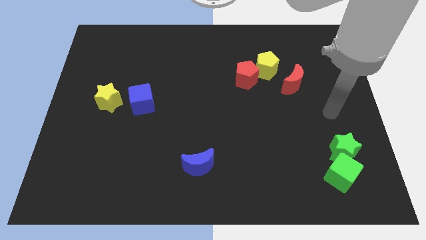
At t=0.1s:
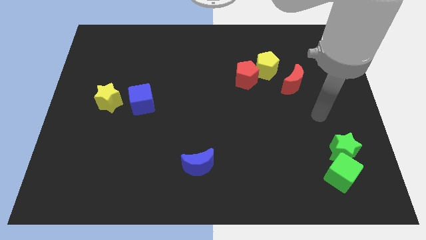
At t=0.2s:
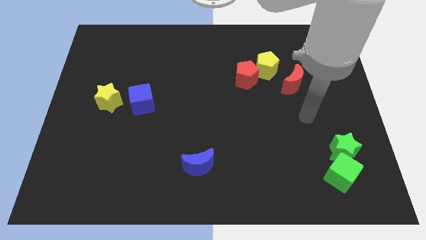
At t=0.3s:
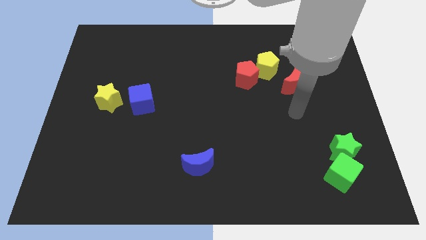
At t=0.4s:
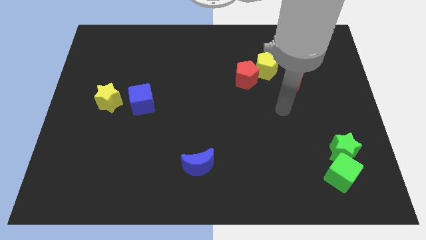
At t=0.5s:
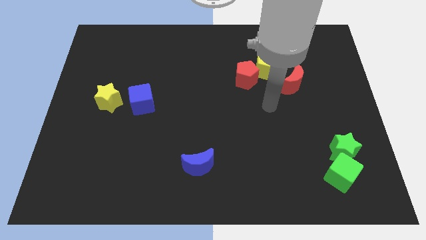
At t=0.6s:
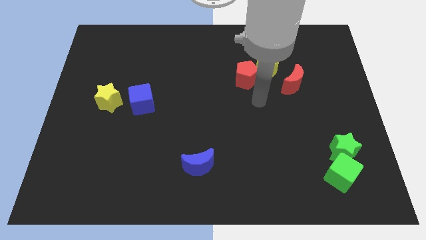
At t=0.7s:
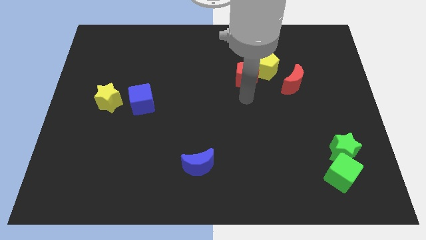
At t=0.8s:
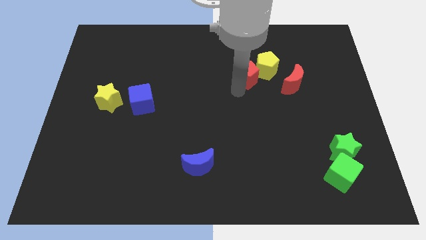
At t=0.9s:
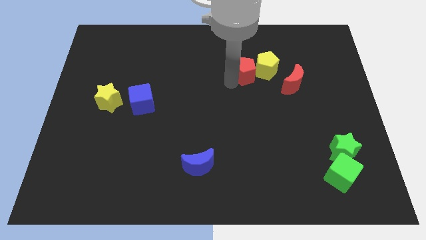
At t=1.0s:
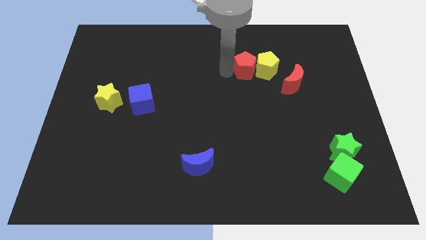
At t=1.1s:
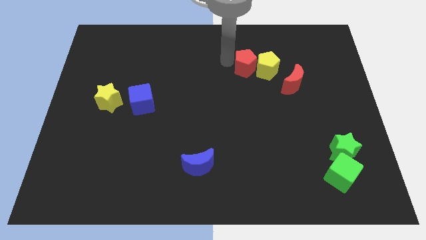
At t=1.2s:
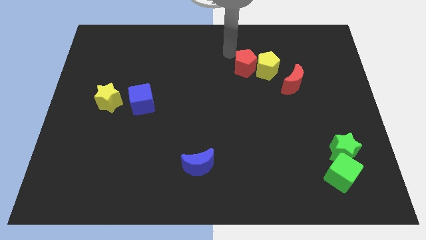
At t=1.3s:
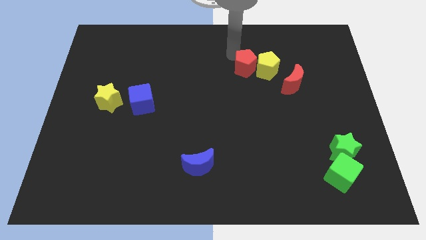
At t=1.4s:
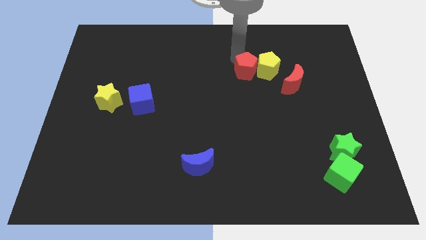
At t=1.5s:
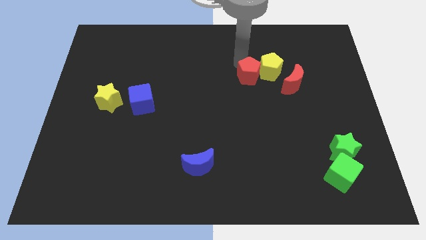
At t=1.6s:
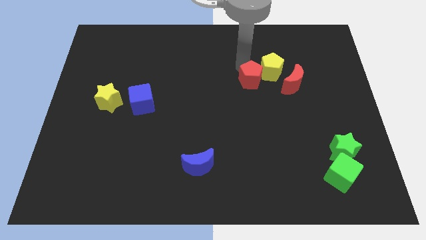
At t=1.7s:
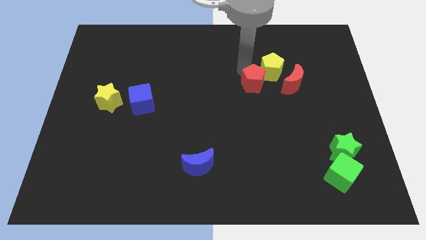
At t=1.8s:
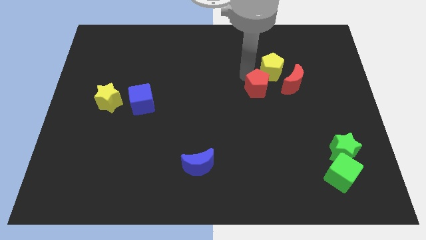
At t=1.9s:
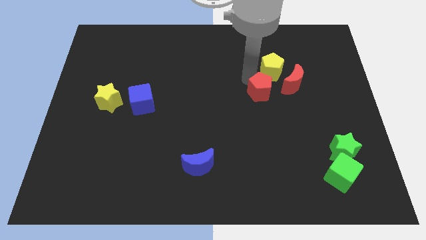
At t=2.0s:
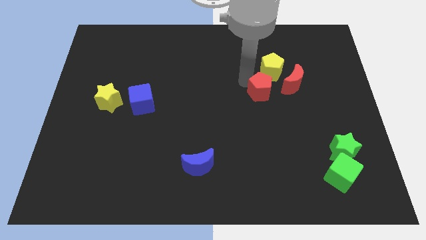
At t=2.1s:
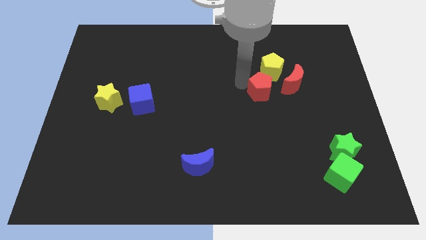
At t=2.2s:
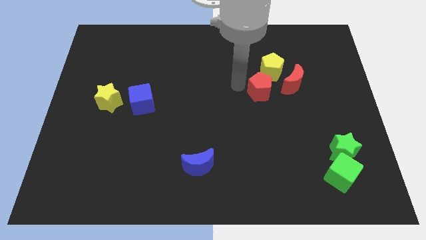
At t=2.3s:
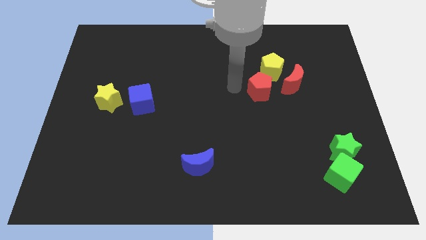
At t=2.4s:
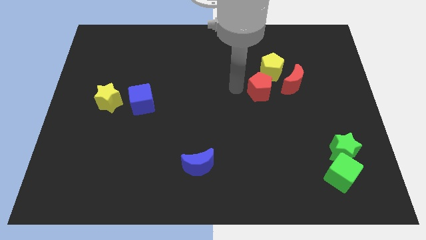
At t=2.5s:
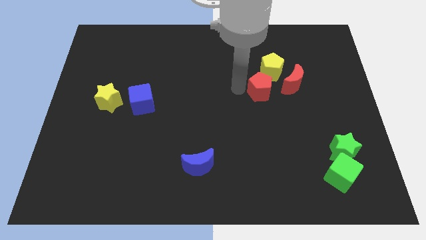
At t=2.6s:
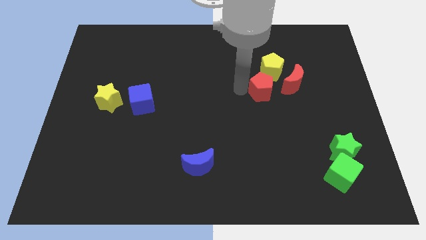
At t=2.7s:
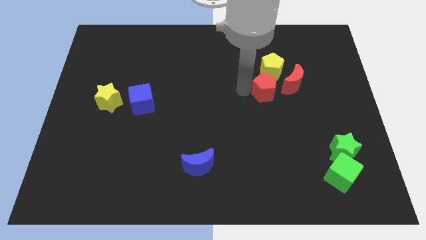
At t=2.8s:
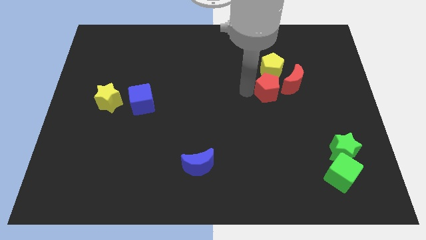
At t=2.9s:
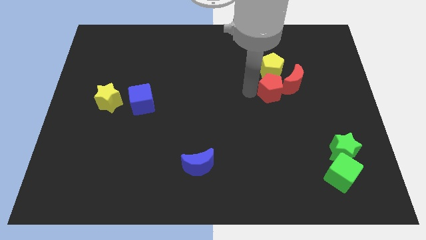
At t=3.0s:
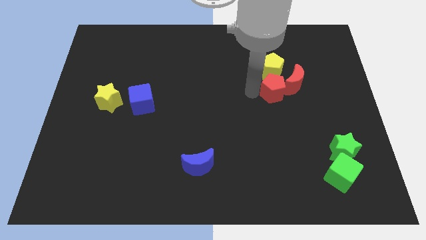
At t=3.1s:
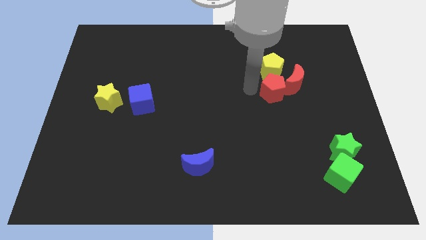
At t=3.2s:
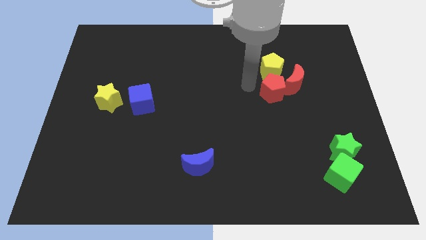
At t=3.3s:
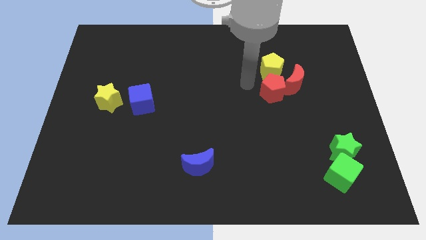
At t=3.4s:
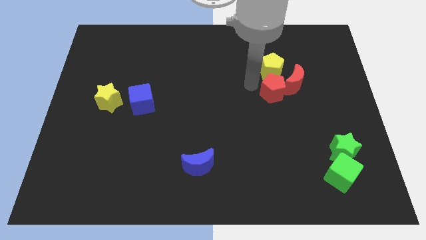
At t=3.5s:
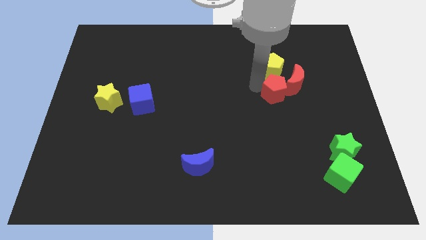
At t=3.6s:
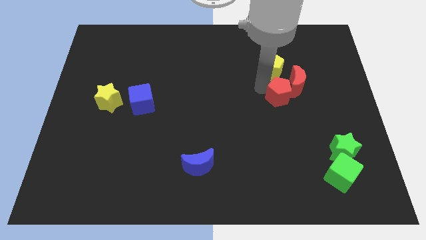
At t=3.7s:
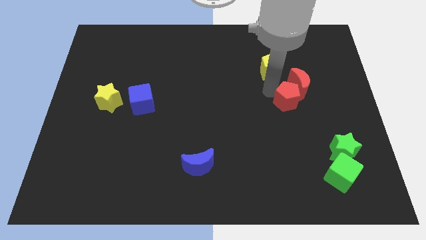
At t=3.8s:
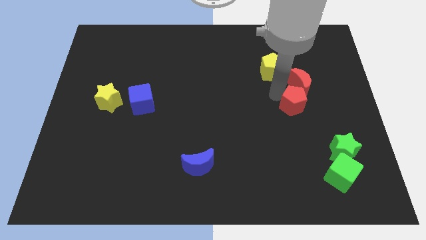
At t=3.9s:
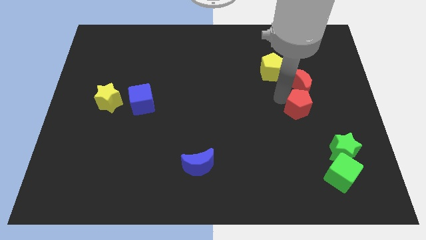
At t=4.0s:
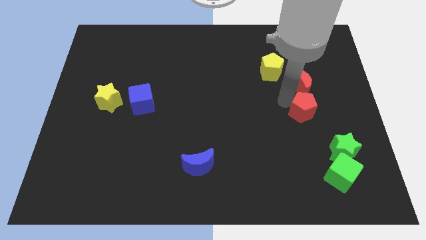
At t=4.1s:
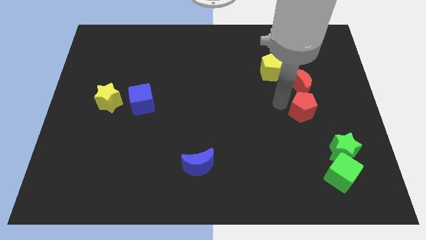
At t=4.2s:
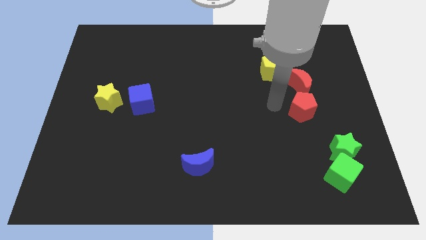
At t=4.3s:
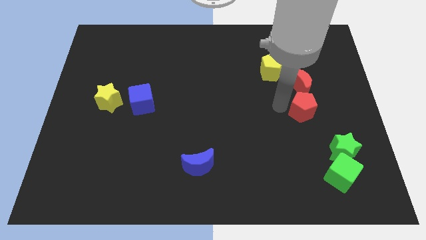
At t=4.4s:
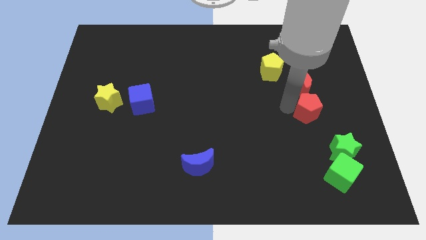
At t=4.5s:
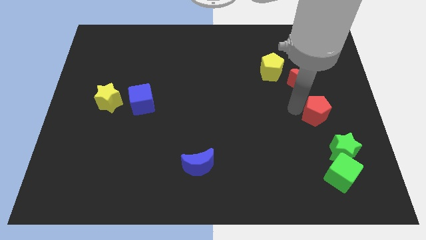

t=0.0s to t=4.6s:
slide the red pentagon above the green star

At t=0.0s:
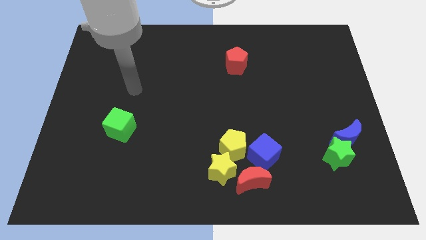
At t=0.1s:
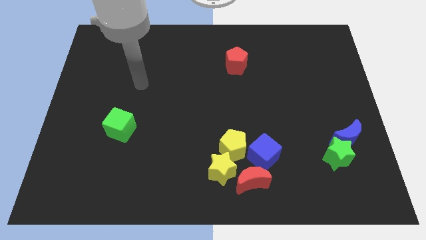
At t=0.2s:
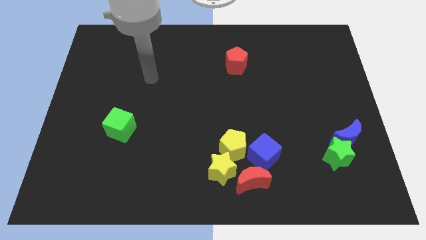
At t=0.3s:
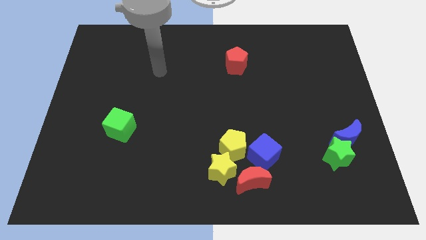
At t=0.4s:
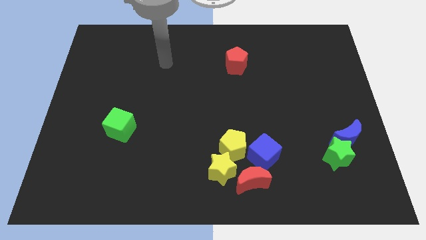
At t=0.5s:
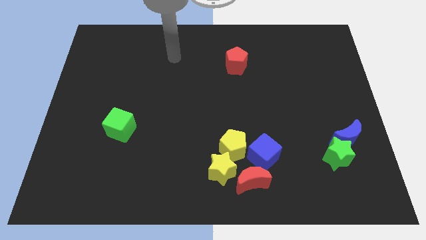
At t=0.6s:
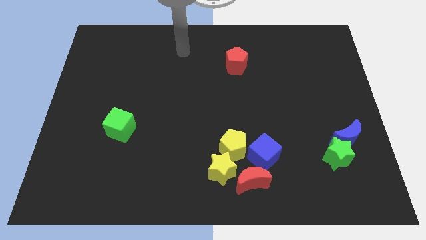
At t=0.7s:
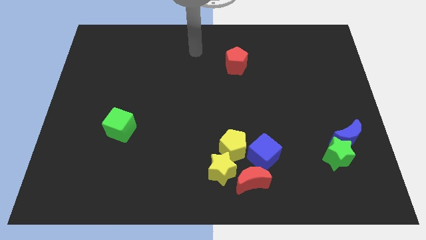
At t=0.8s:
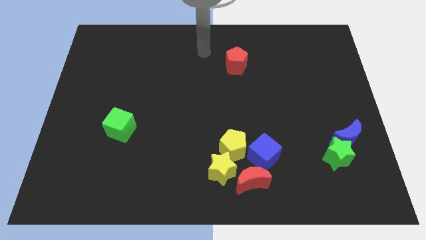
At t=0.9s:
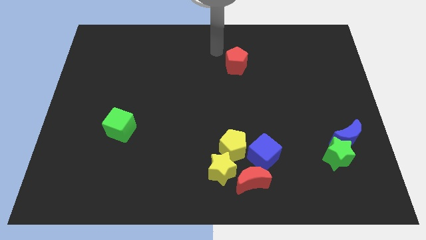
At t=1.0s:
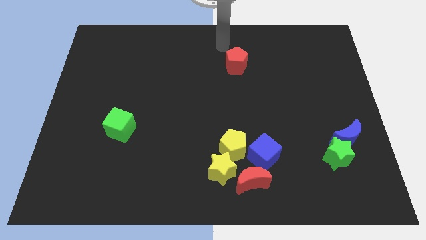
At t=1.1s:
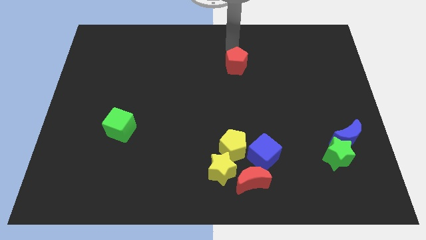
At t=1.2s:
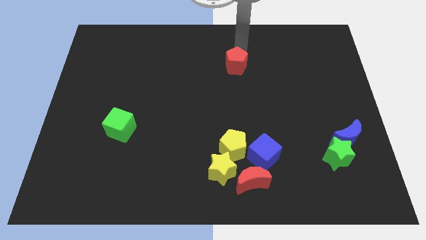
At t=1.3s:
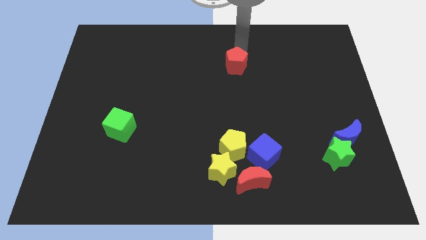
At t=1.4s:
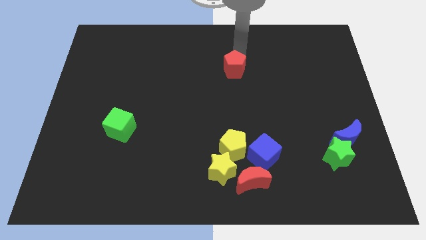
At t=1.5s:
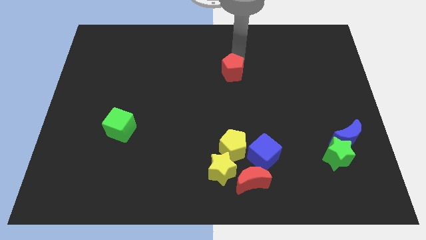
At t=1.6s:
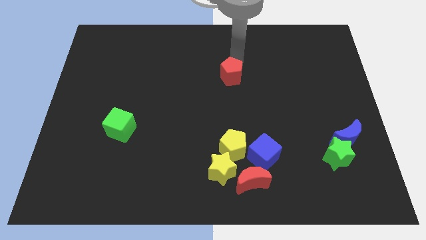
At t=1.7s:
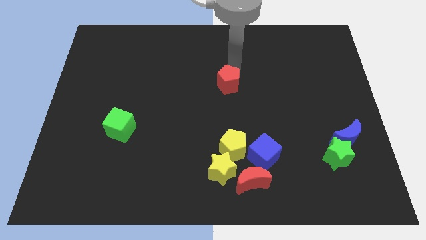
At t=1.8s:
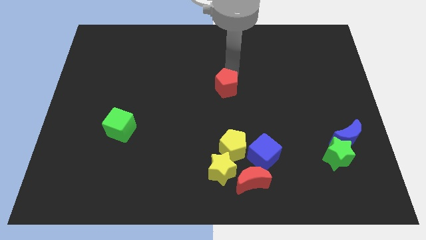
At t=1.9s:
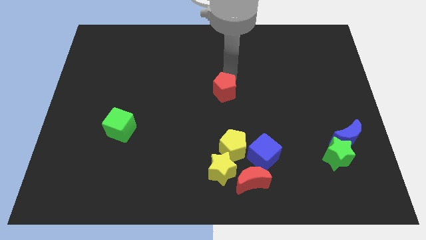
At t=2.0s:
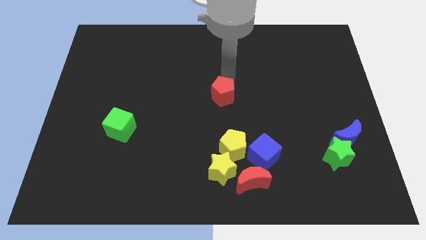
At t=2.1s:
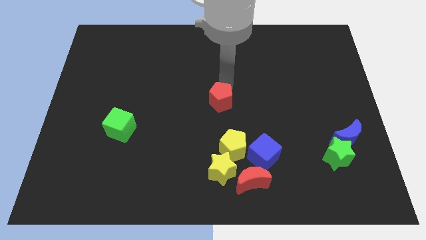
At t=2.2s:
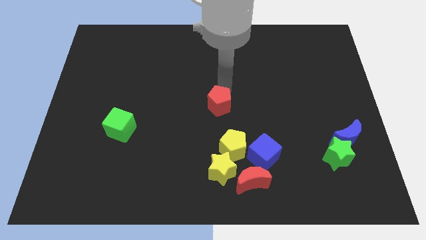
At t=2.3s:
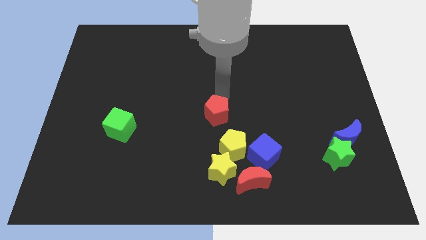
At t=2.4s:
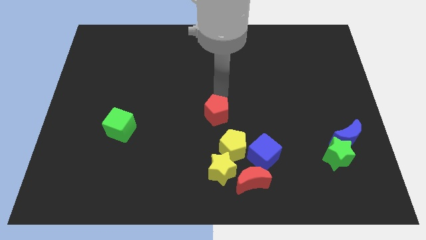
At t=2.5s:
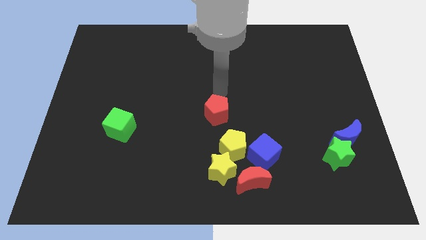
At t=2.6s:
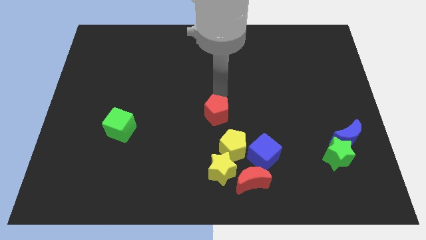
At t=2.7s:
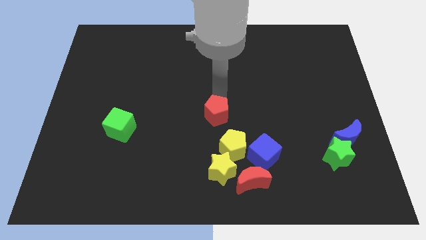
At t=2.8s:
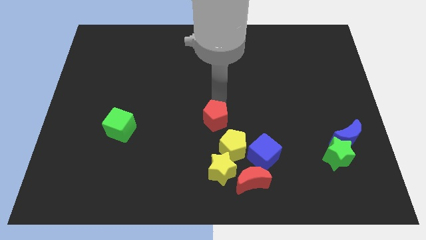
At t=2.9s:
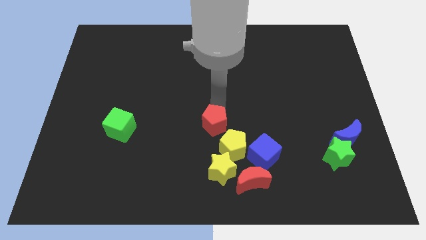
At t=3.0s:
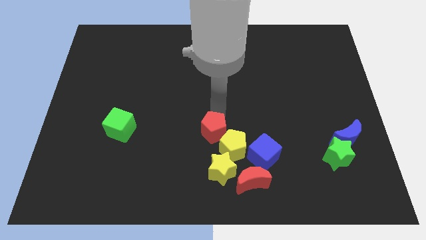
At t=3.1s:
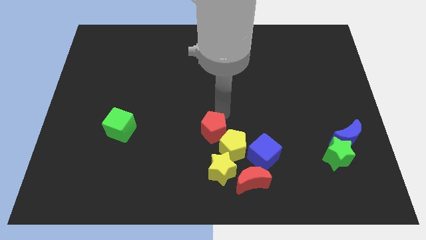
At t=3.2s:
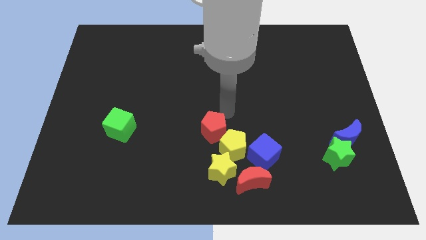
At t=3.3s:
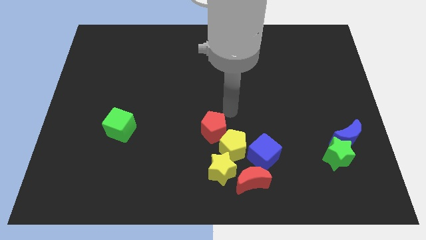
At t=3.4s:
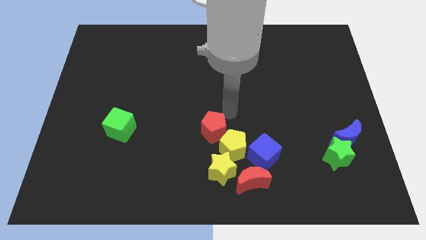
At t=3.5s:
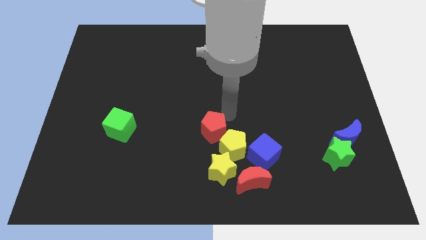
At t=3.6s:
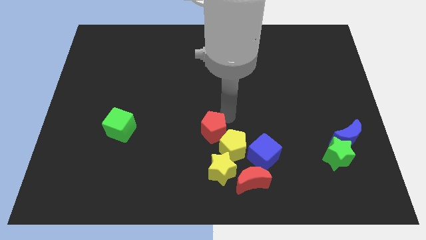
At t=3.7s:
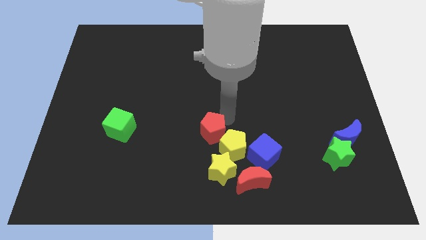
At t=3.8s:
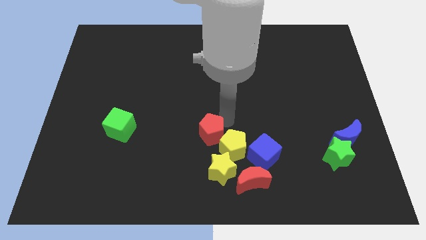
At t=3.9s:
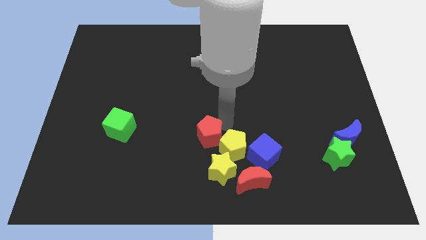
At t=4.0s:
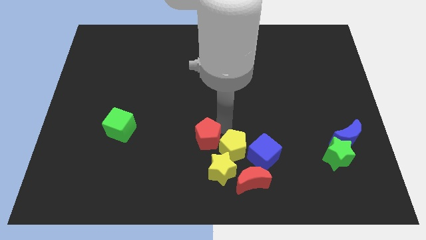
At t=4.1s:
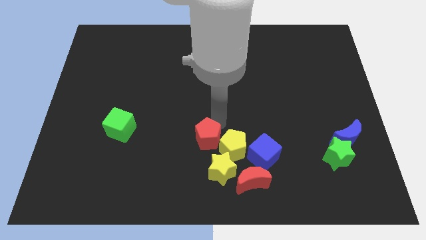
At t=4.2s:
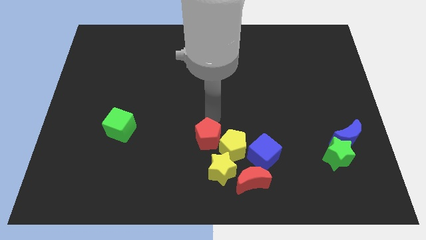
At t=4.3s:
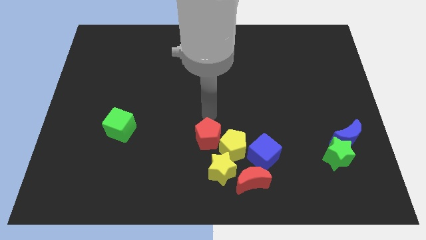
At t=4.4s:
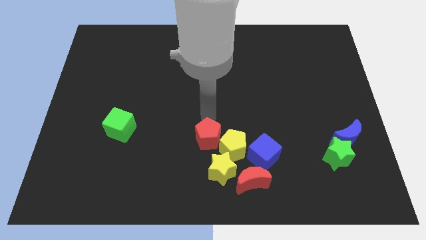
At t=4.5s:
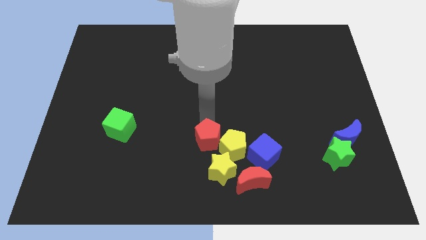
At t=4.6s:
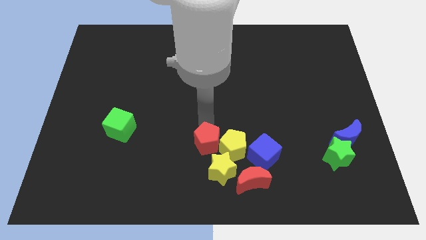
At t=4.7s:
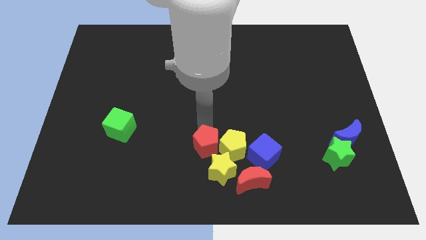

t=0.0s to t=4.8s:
put the red pentagon to the bottom left side of the yellow pentagon
